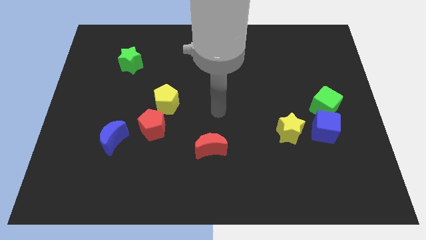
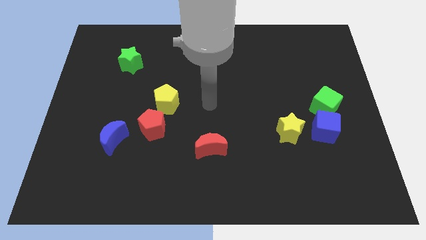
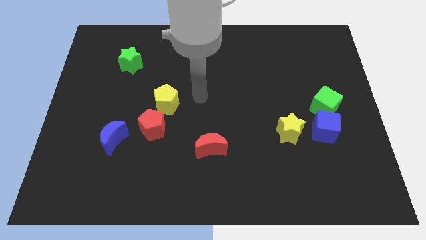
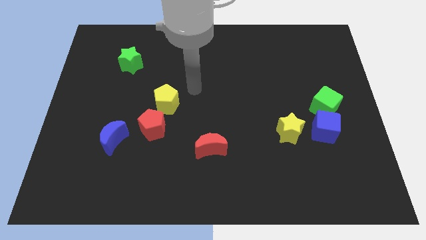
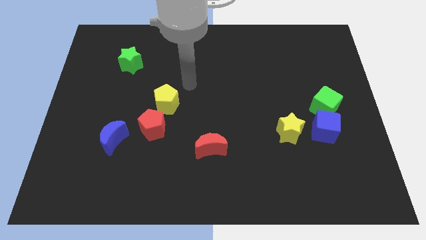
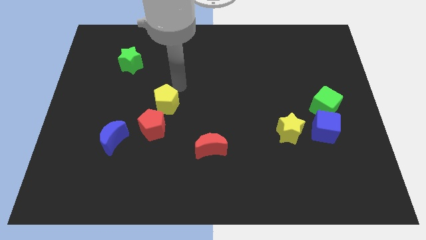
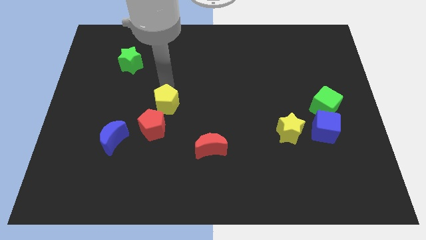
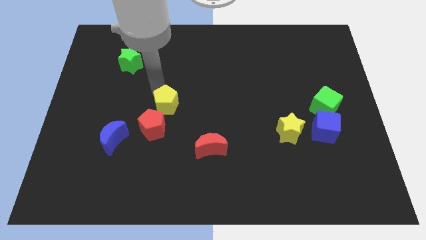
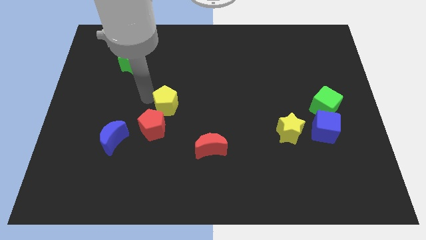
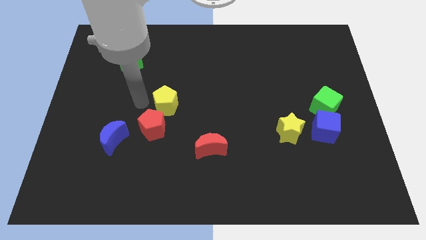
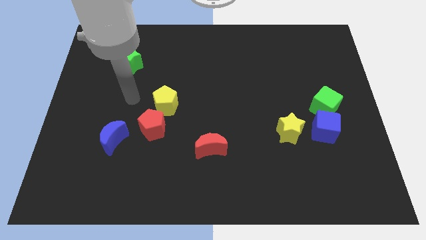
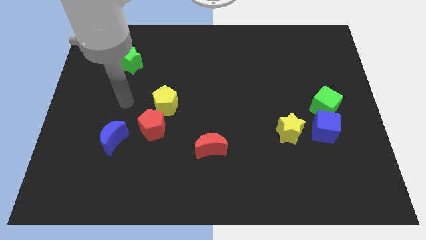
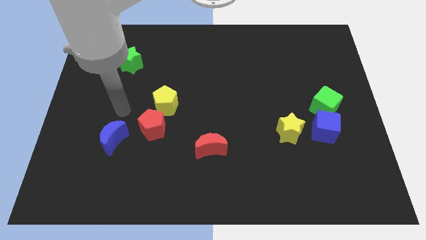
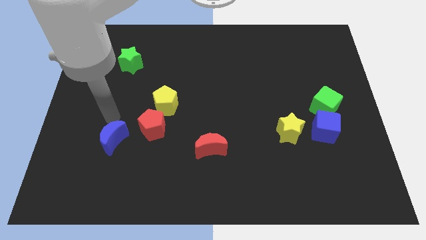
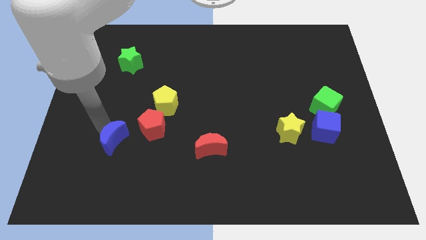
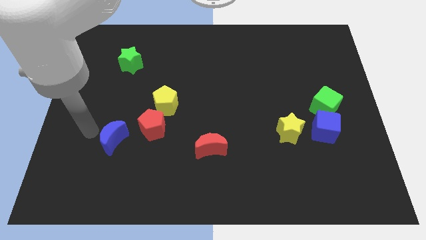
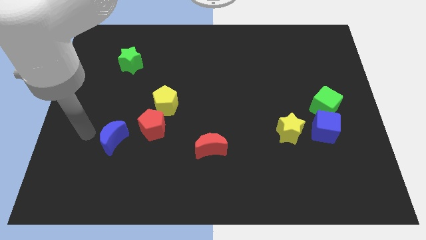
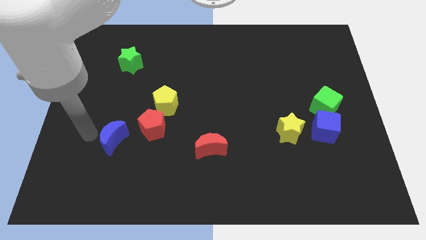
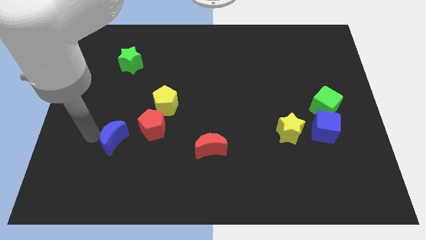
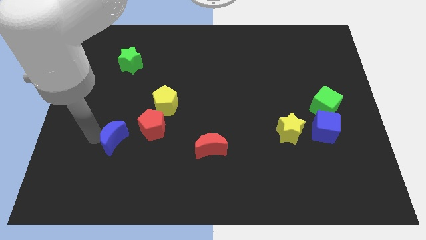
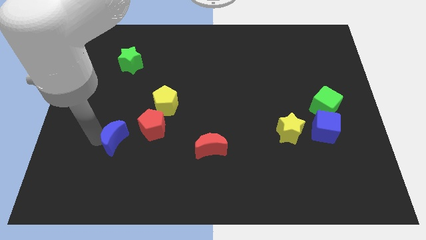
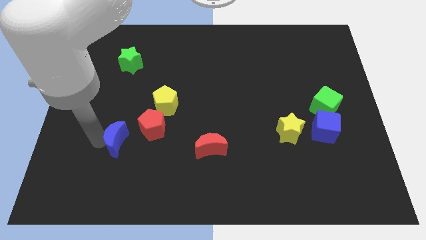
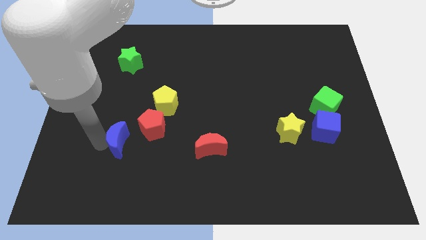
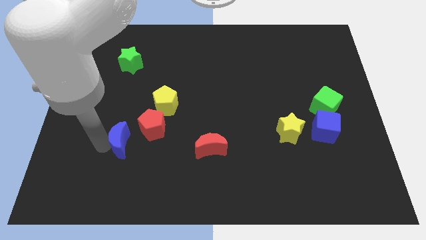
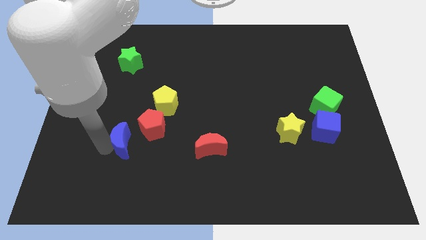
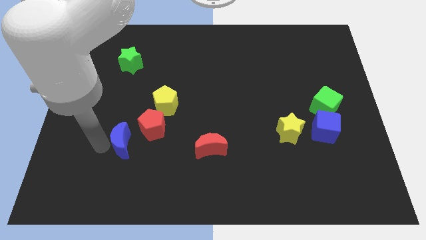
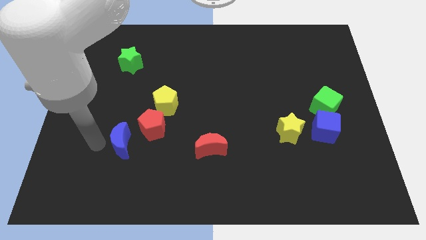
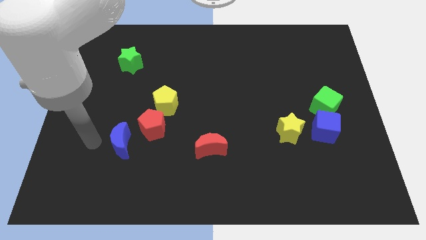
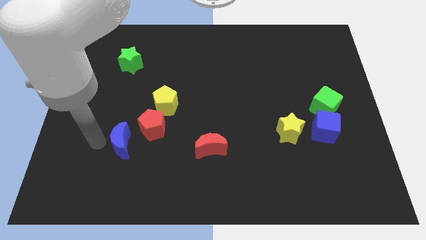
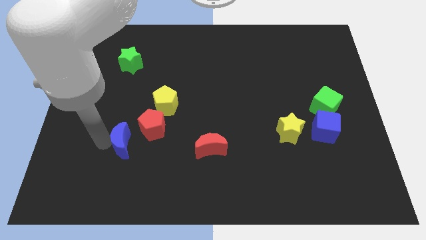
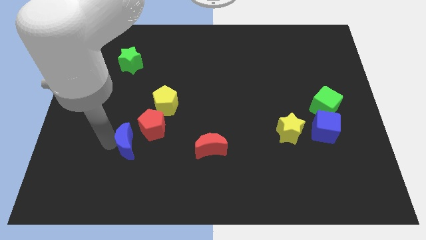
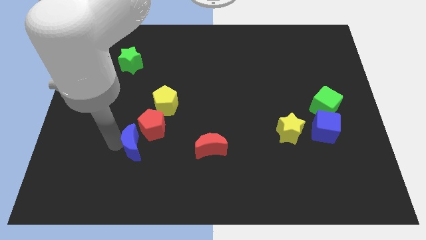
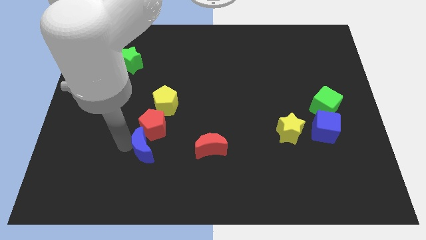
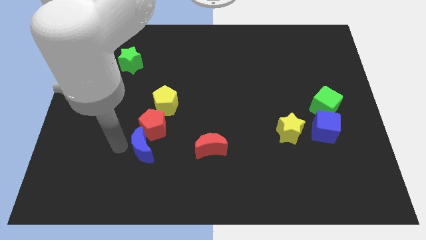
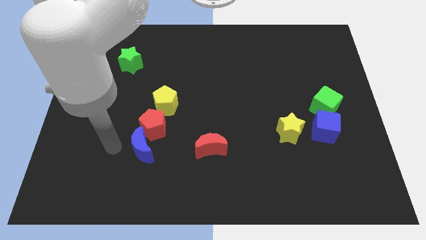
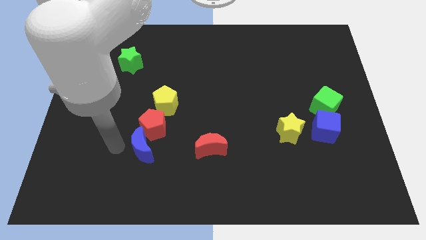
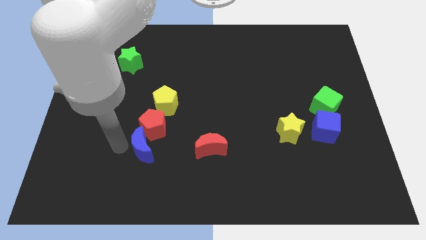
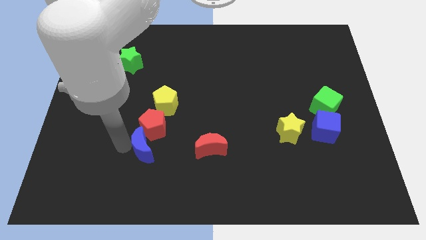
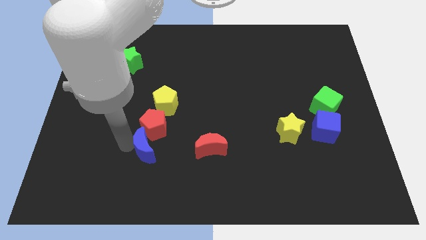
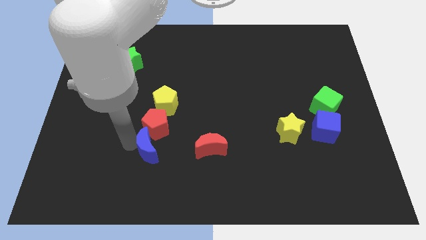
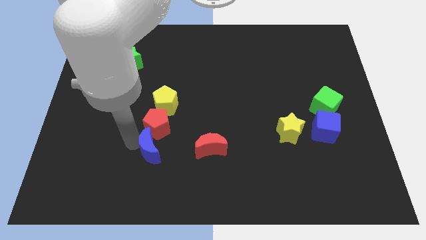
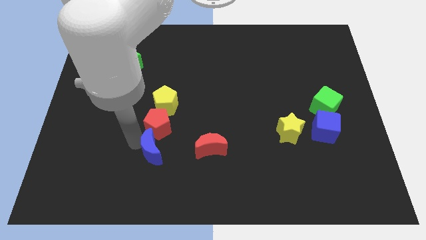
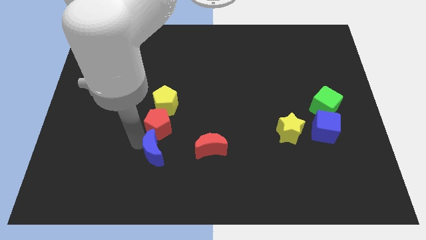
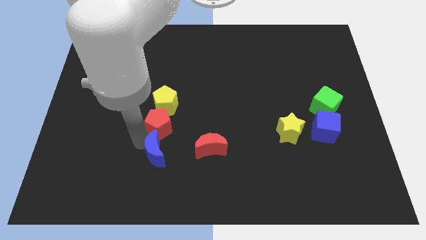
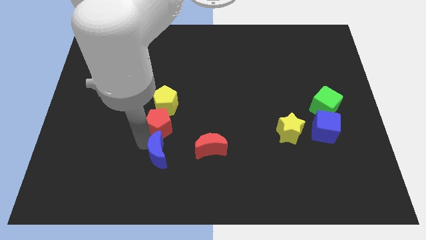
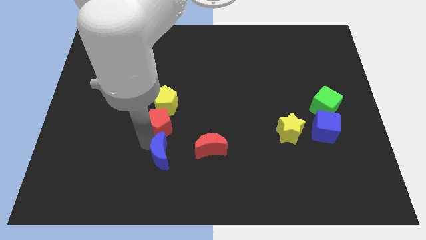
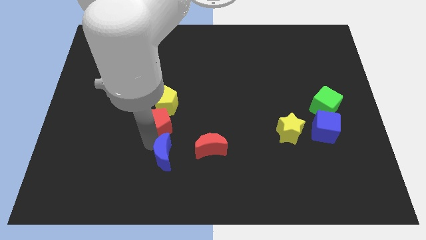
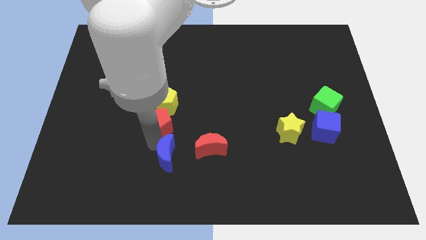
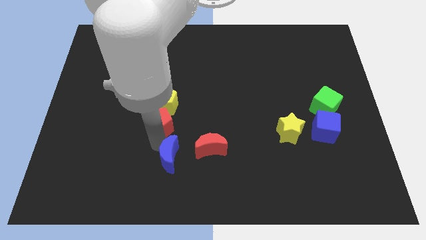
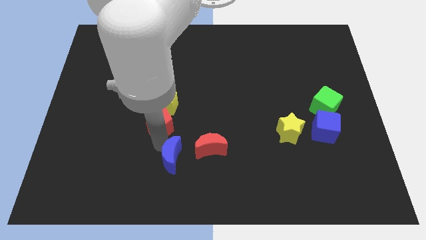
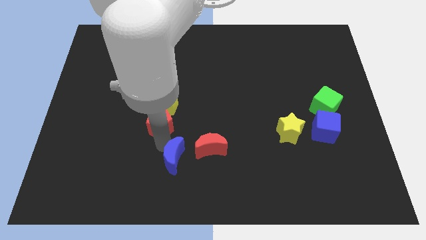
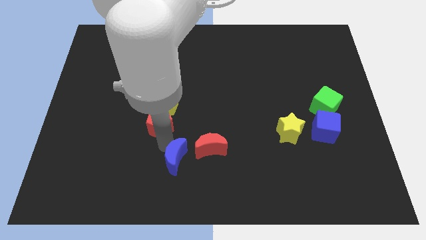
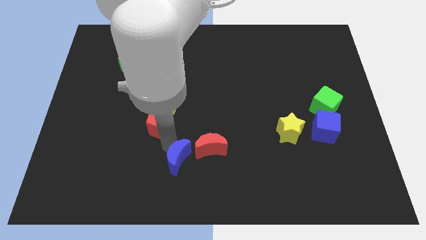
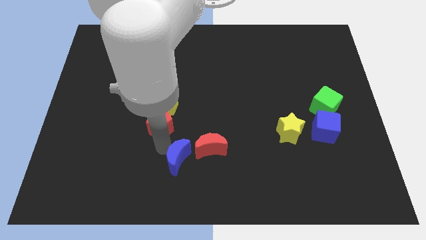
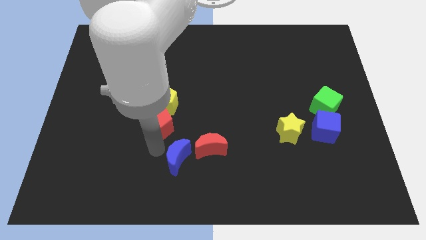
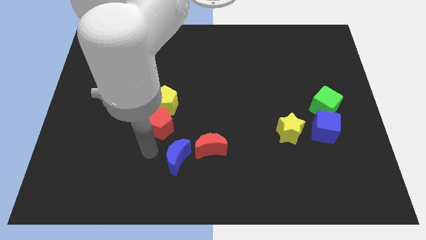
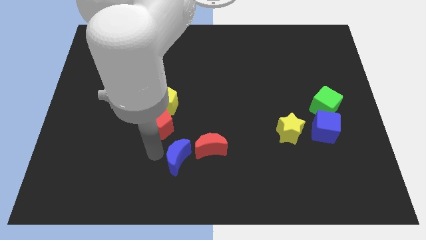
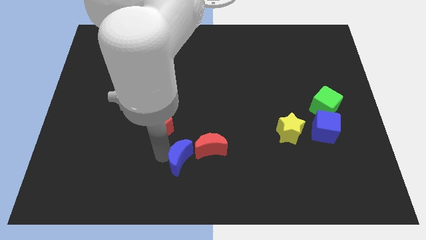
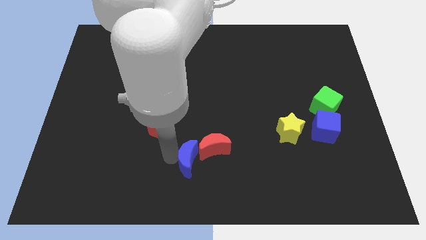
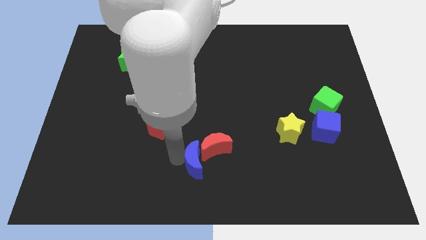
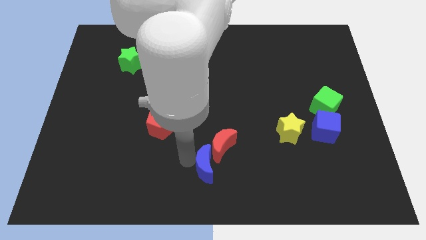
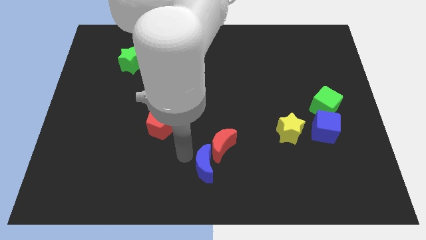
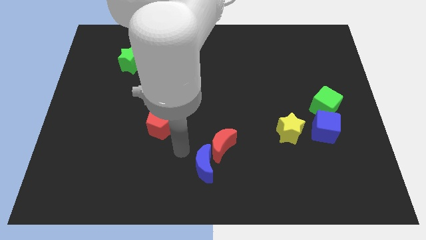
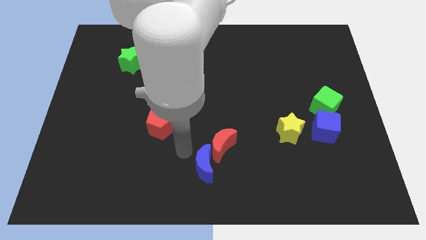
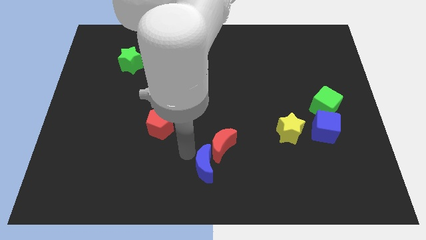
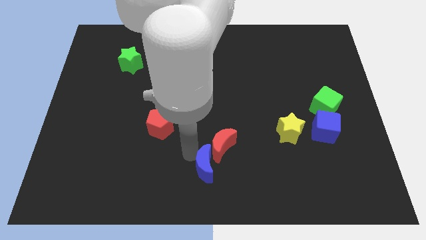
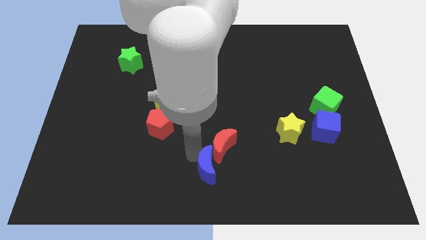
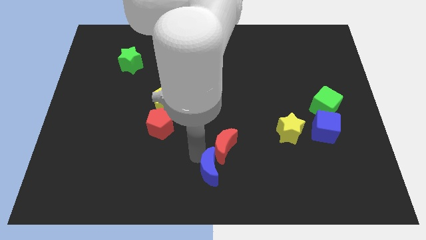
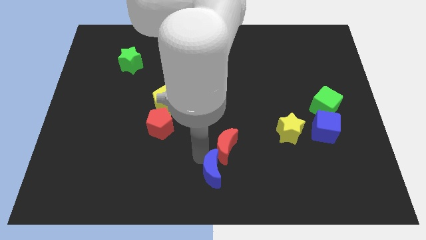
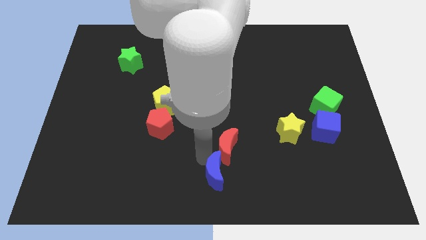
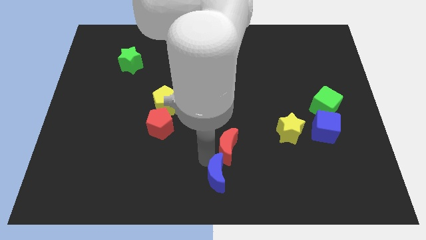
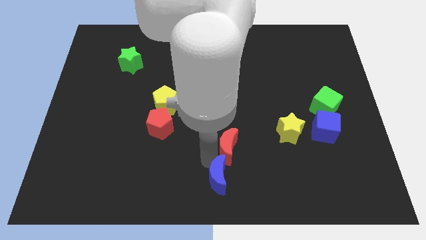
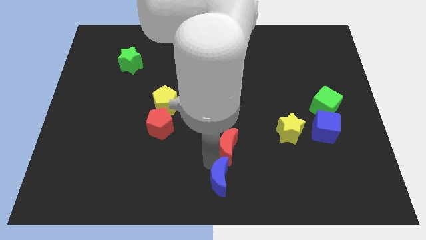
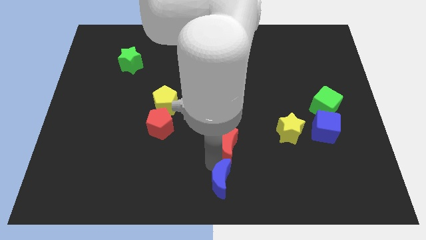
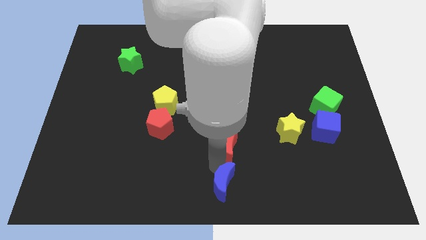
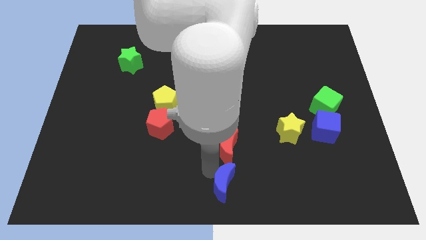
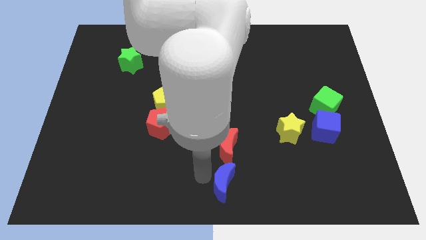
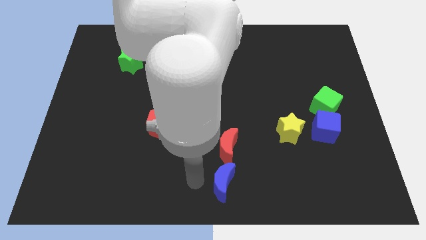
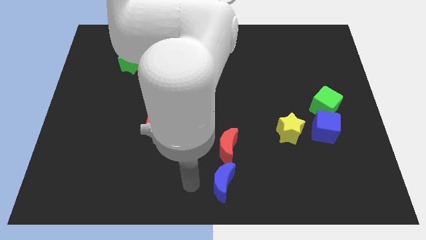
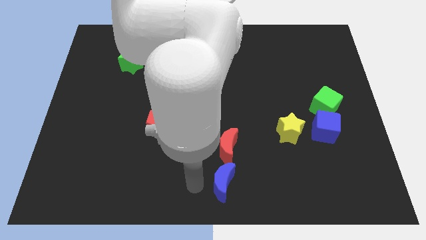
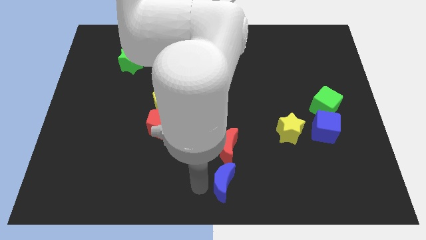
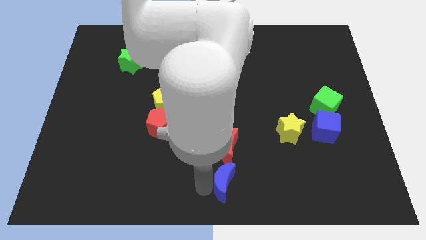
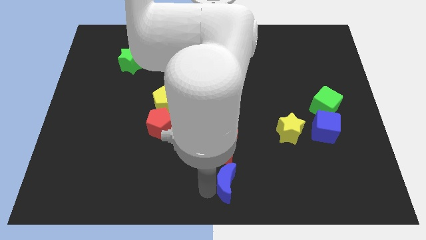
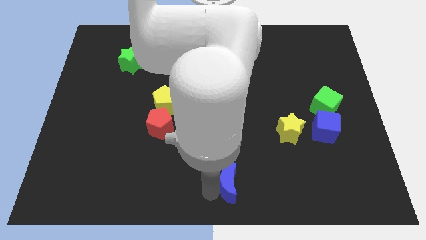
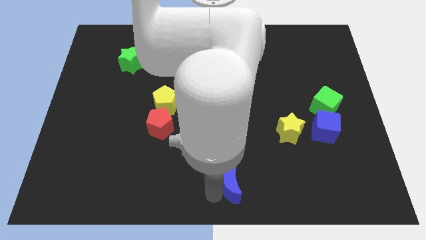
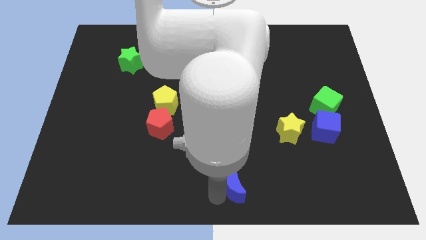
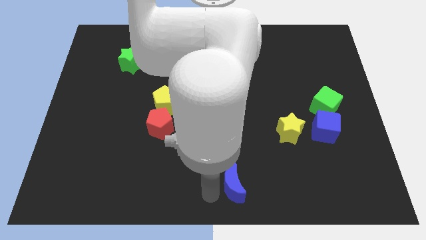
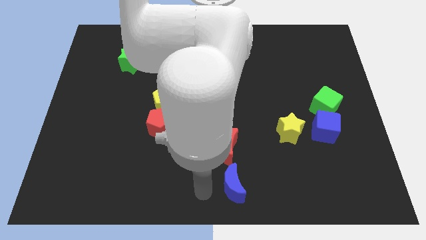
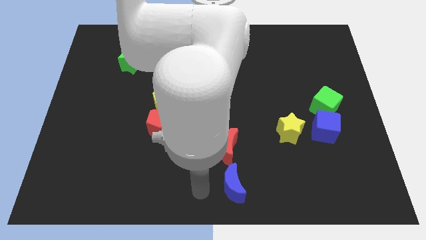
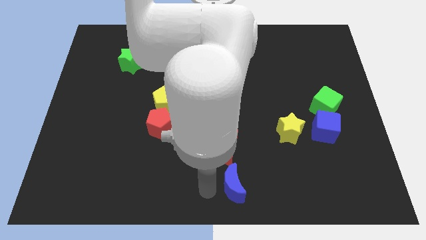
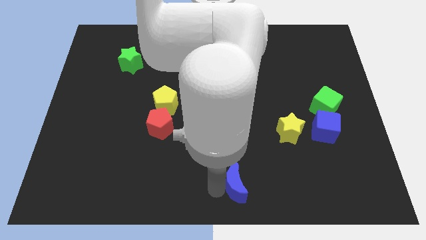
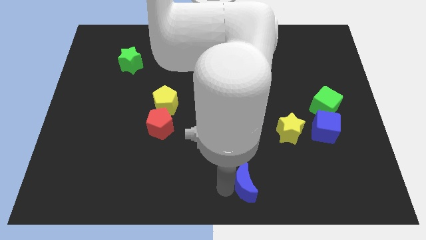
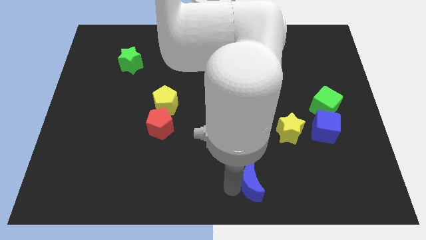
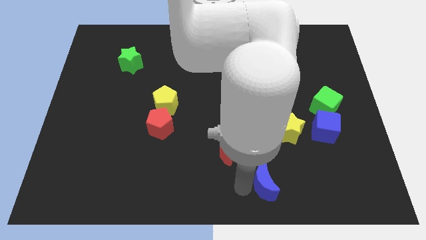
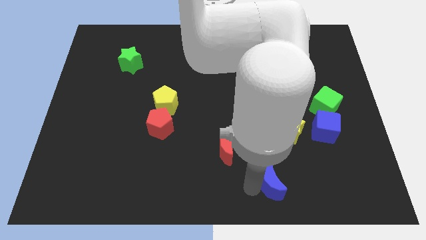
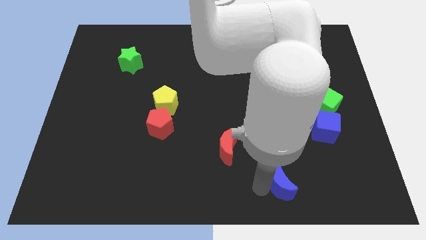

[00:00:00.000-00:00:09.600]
push the blue moon below the yellow star
